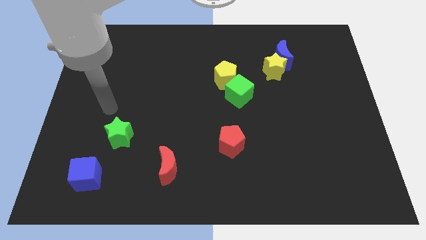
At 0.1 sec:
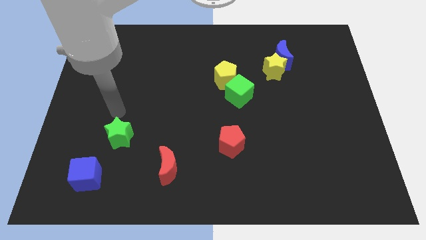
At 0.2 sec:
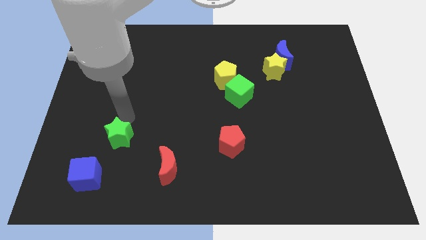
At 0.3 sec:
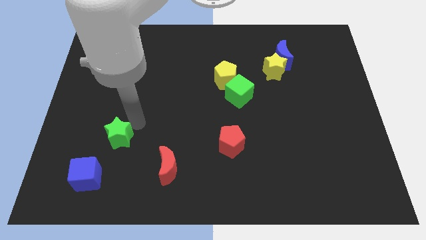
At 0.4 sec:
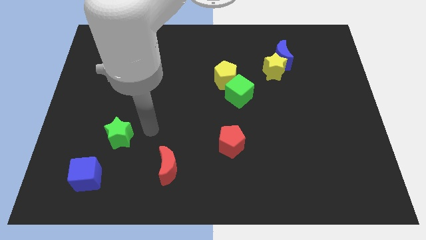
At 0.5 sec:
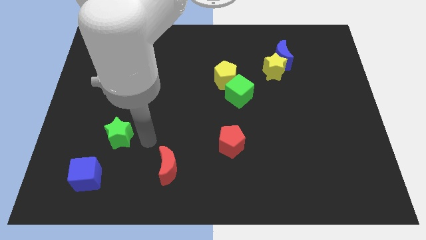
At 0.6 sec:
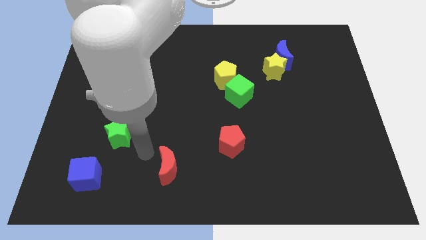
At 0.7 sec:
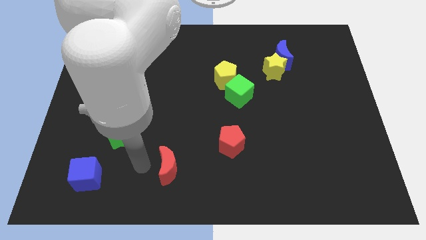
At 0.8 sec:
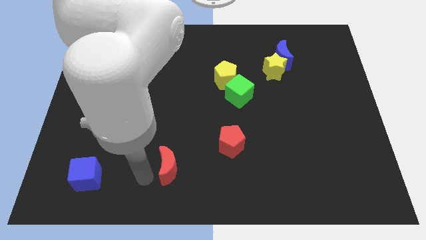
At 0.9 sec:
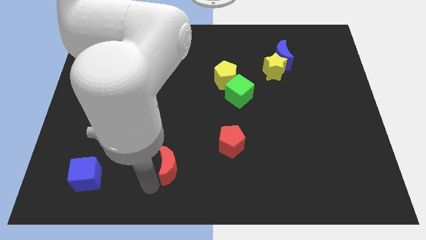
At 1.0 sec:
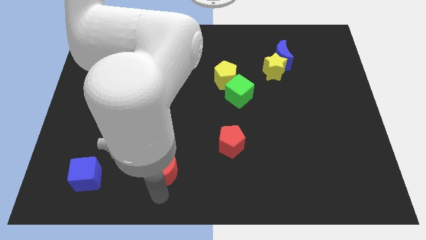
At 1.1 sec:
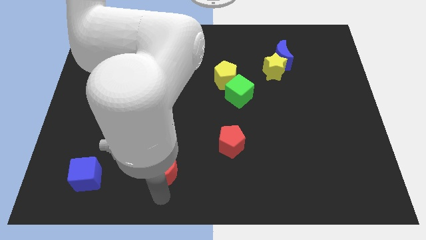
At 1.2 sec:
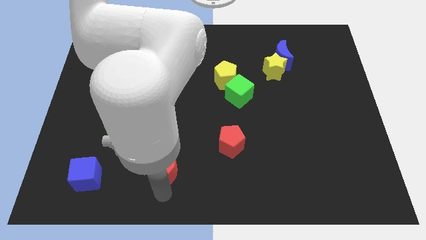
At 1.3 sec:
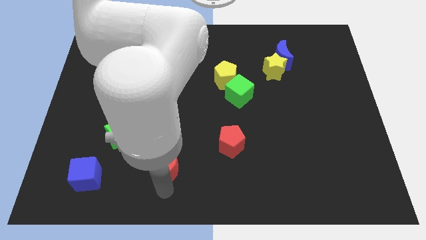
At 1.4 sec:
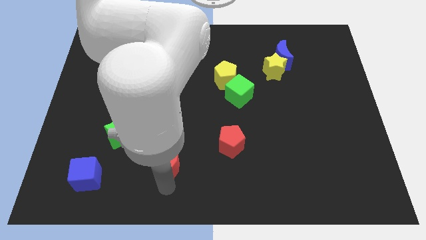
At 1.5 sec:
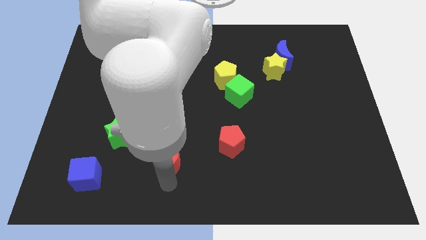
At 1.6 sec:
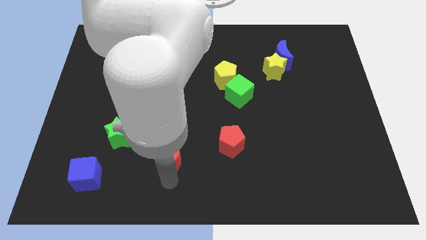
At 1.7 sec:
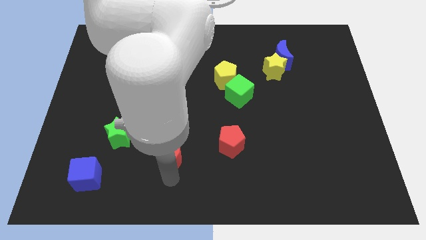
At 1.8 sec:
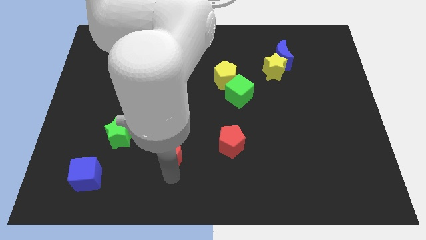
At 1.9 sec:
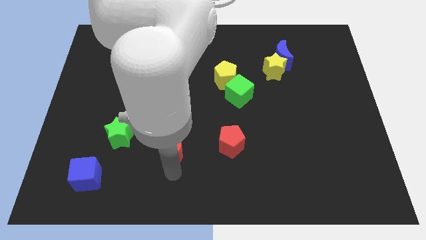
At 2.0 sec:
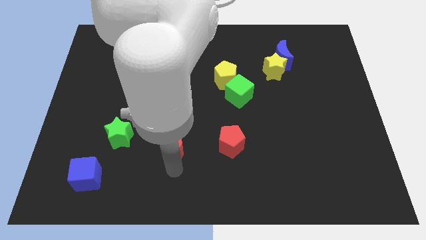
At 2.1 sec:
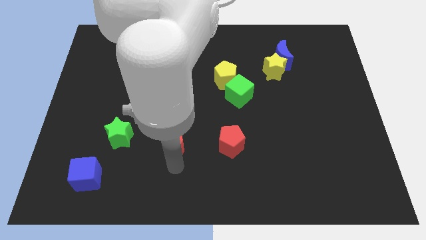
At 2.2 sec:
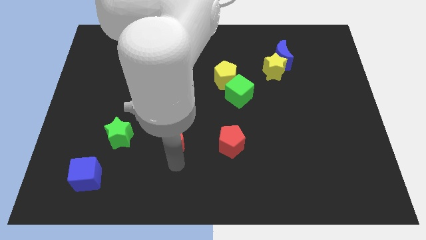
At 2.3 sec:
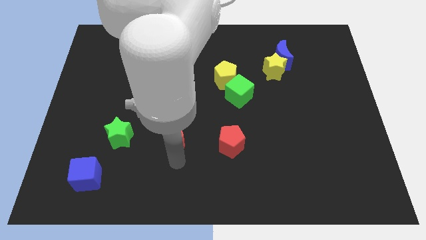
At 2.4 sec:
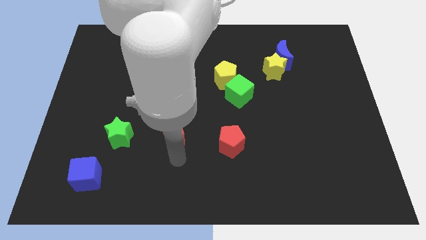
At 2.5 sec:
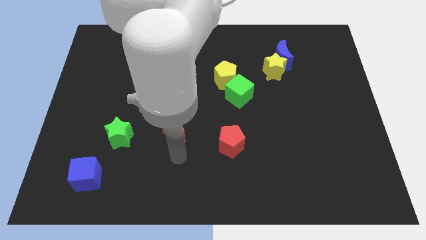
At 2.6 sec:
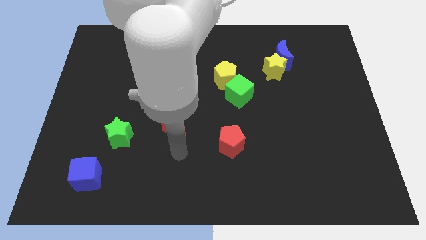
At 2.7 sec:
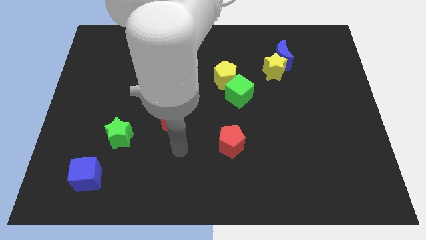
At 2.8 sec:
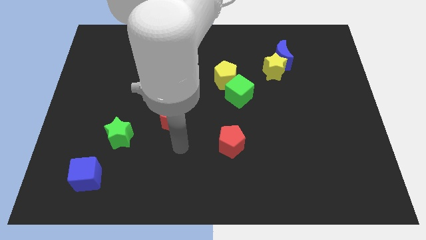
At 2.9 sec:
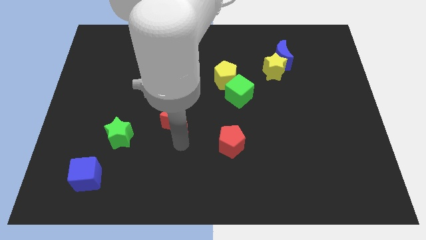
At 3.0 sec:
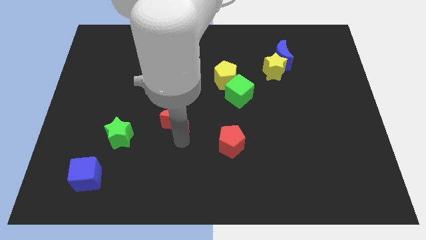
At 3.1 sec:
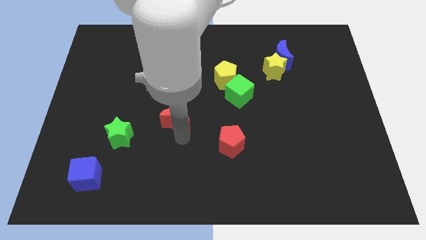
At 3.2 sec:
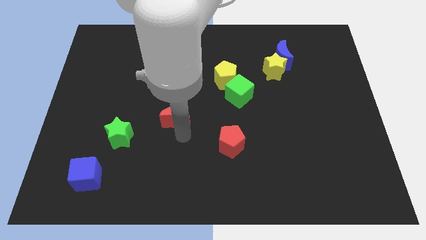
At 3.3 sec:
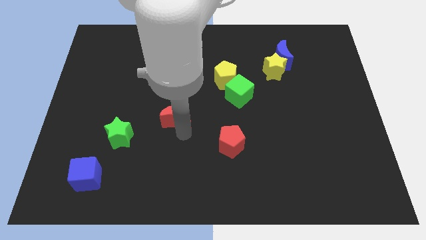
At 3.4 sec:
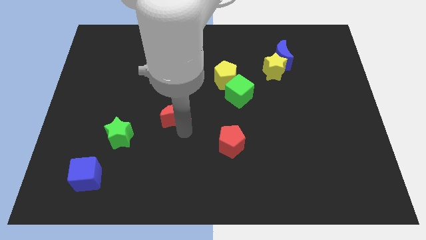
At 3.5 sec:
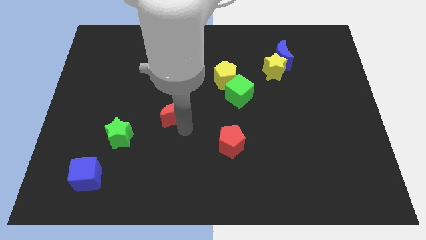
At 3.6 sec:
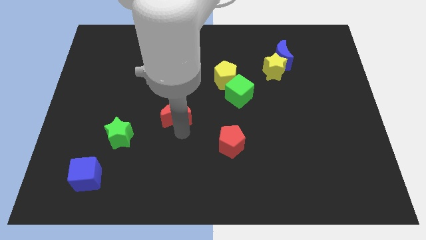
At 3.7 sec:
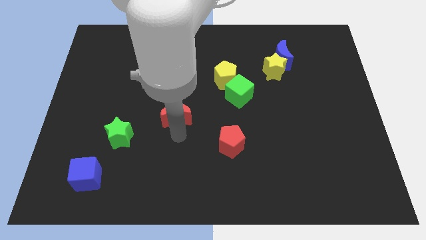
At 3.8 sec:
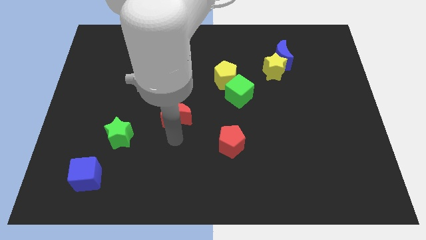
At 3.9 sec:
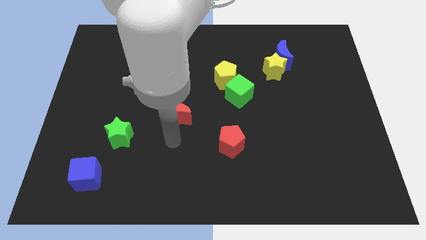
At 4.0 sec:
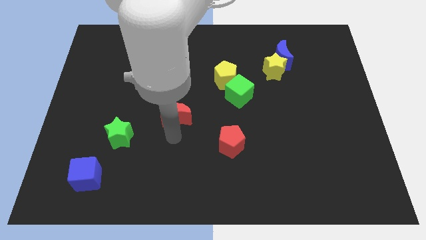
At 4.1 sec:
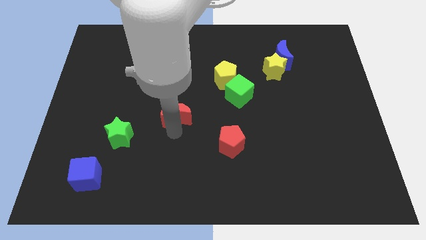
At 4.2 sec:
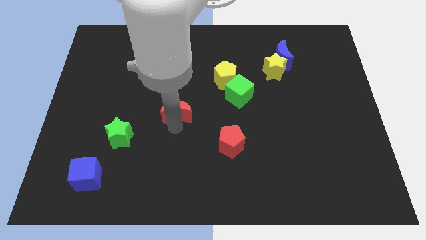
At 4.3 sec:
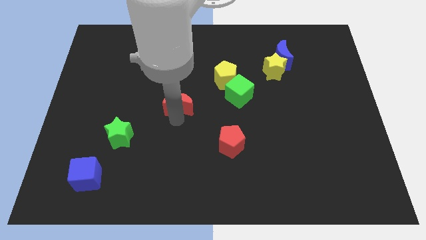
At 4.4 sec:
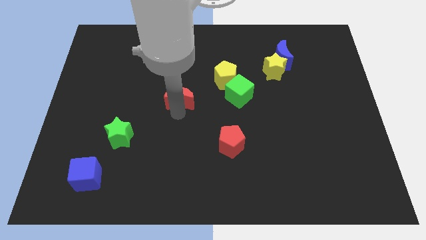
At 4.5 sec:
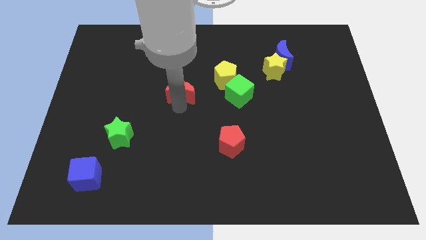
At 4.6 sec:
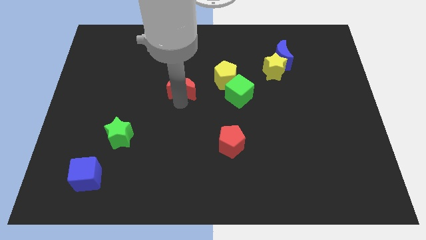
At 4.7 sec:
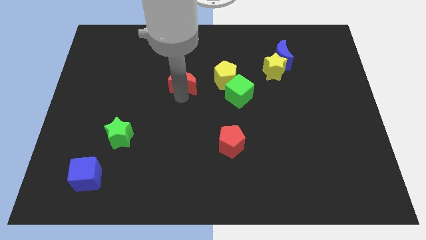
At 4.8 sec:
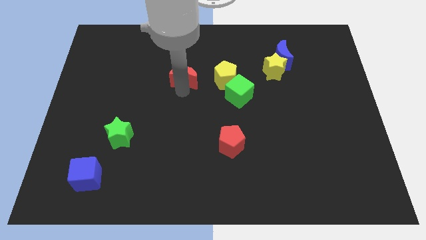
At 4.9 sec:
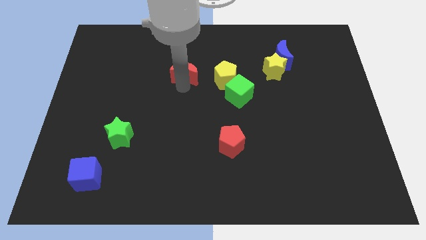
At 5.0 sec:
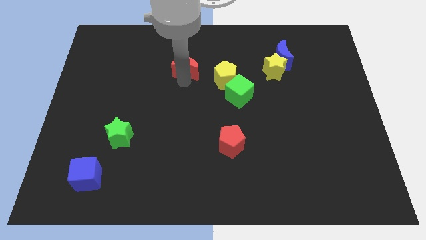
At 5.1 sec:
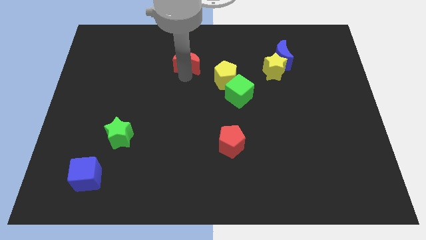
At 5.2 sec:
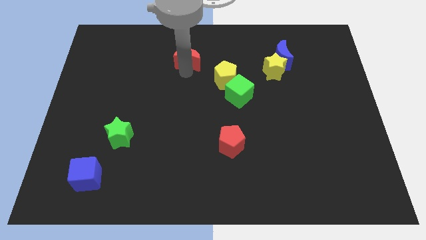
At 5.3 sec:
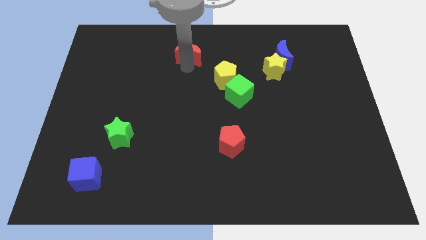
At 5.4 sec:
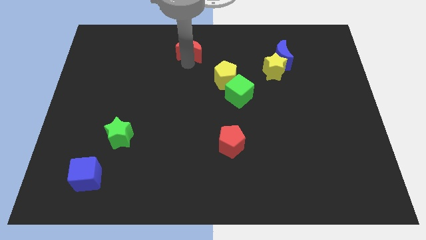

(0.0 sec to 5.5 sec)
put the red moon to the top

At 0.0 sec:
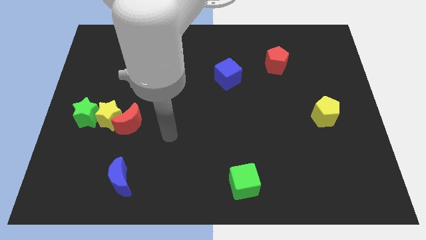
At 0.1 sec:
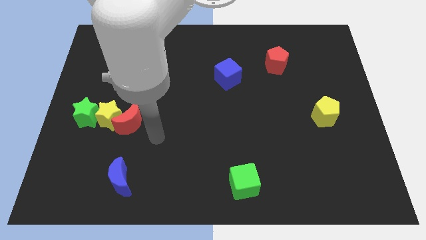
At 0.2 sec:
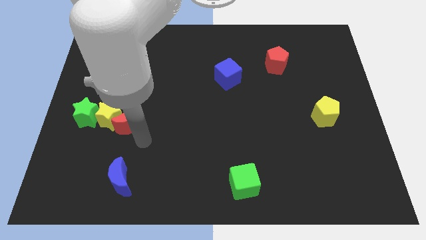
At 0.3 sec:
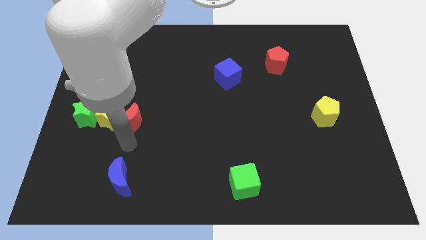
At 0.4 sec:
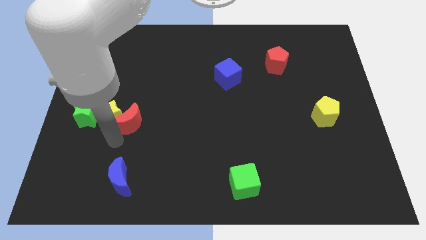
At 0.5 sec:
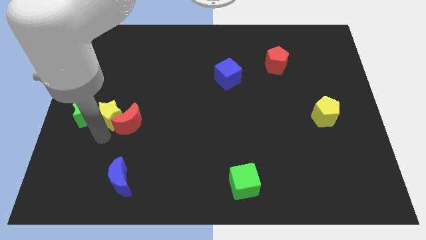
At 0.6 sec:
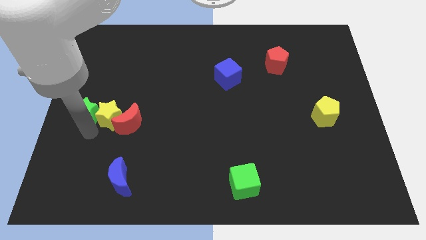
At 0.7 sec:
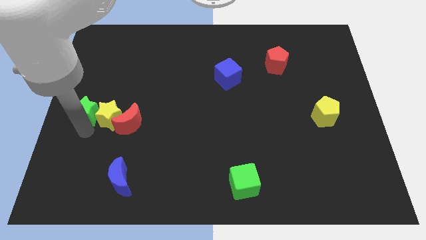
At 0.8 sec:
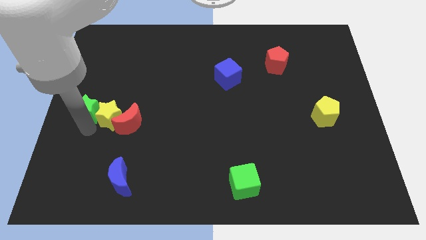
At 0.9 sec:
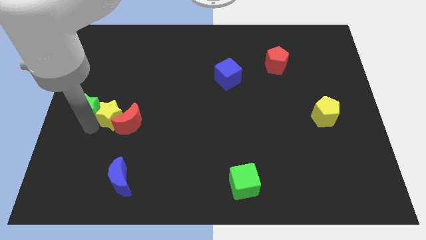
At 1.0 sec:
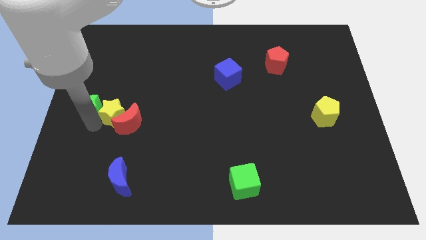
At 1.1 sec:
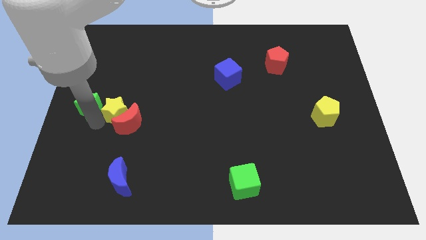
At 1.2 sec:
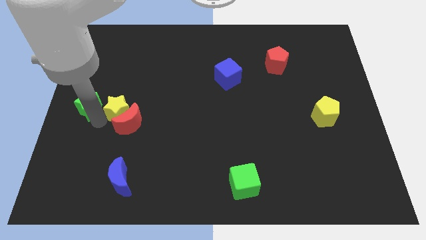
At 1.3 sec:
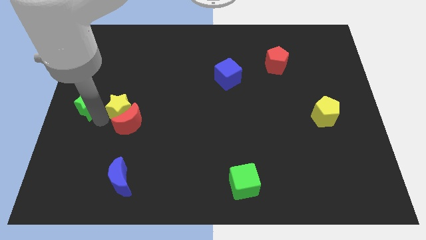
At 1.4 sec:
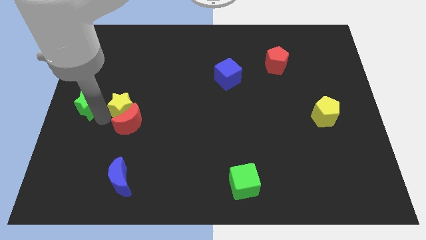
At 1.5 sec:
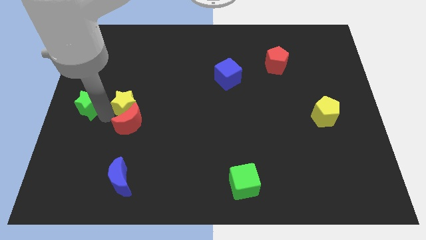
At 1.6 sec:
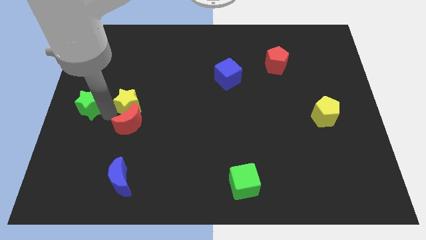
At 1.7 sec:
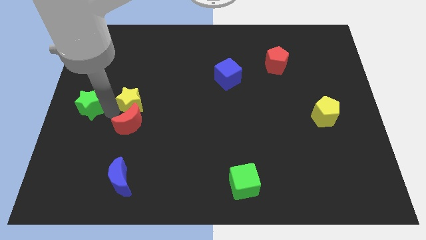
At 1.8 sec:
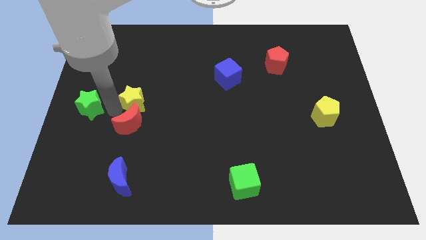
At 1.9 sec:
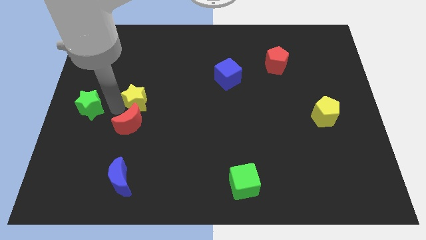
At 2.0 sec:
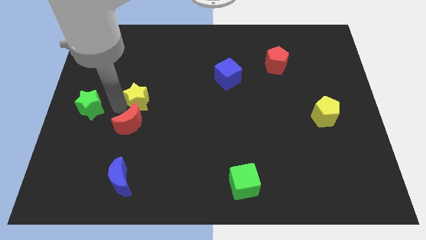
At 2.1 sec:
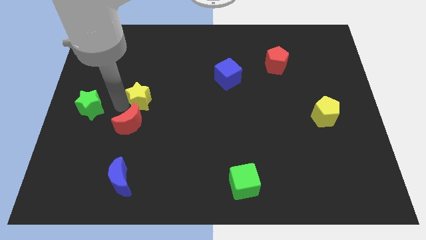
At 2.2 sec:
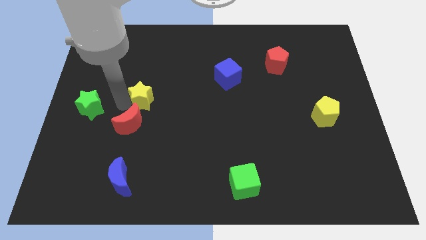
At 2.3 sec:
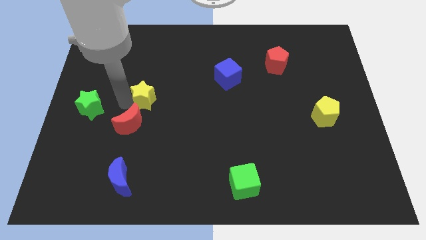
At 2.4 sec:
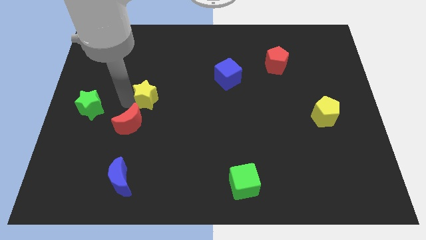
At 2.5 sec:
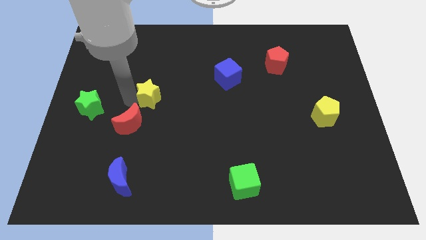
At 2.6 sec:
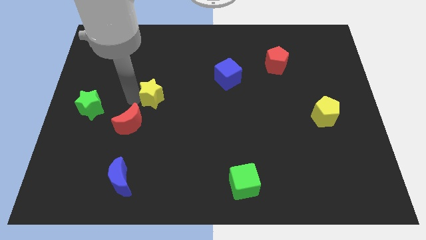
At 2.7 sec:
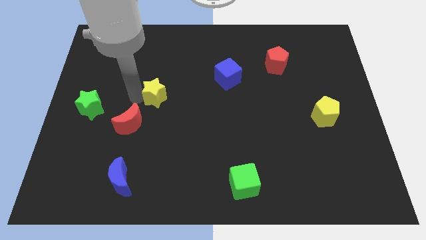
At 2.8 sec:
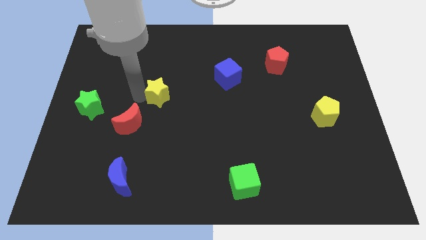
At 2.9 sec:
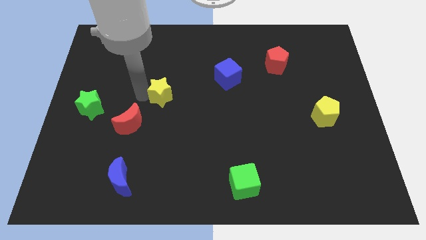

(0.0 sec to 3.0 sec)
slide the yellow star to the middle
